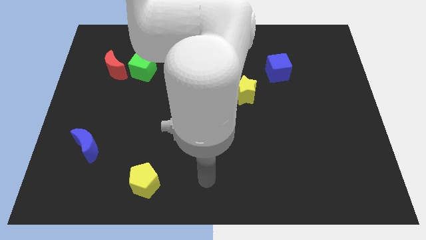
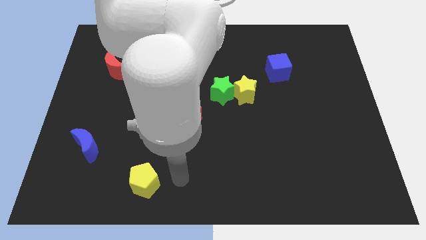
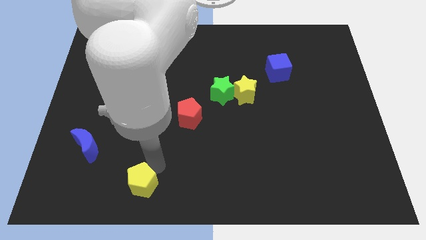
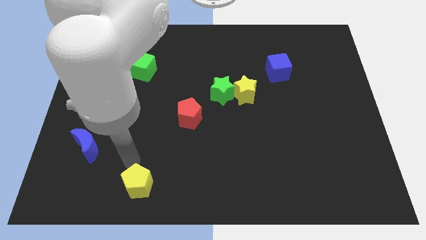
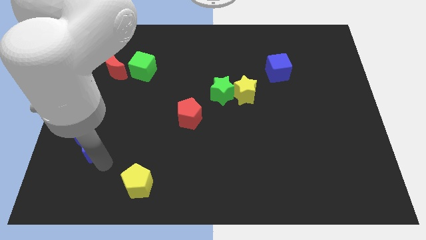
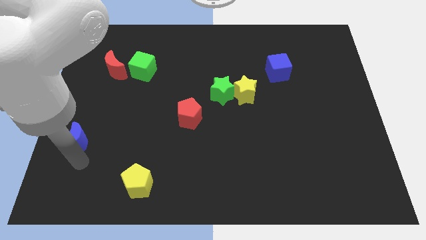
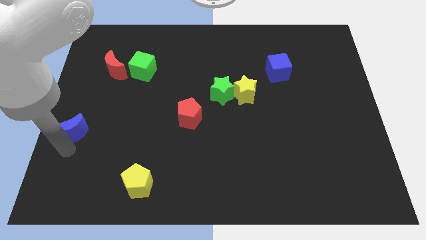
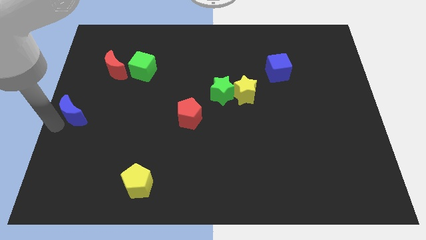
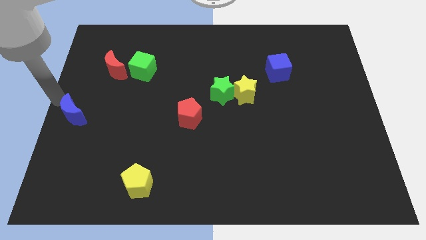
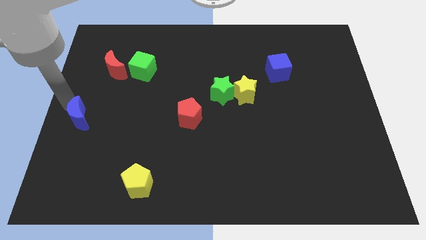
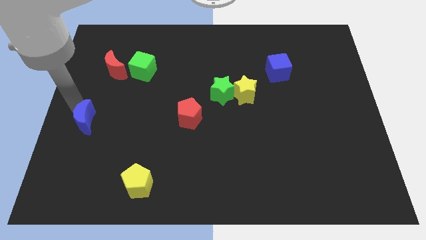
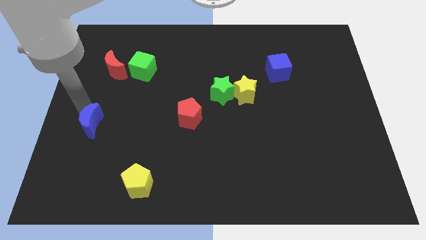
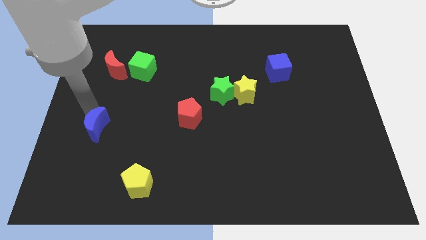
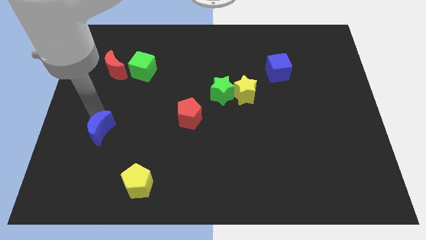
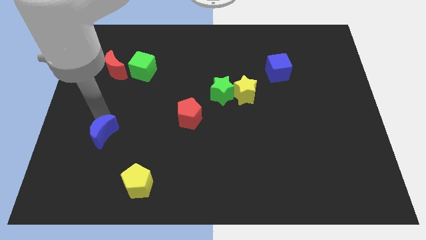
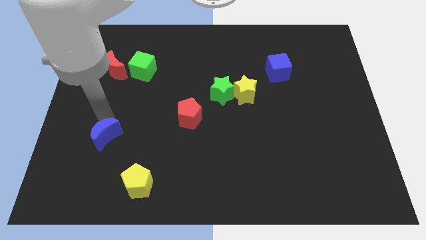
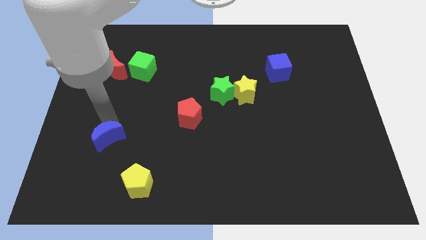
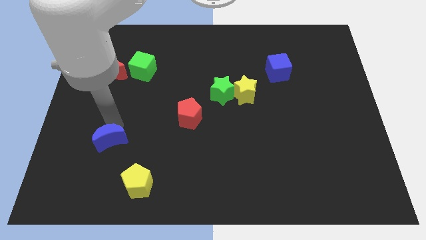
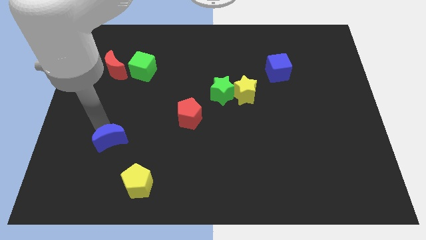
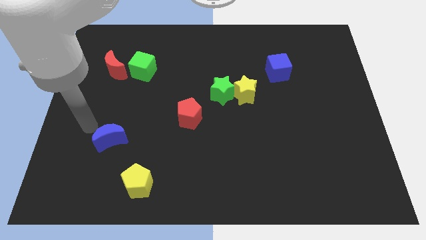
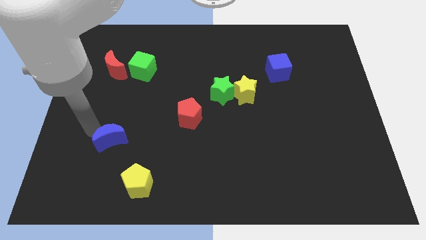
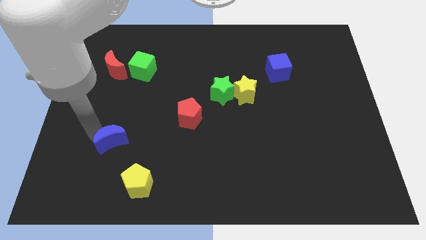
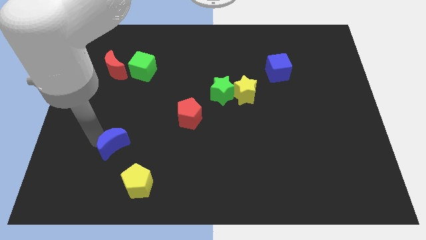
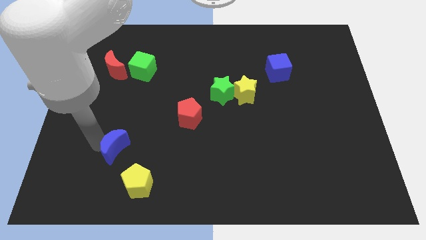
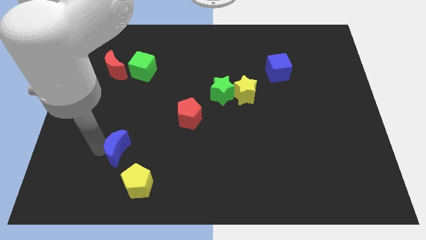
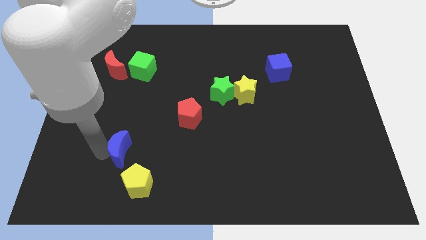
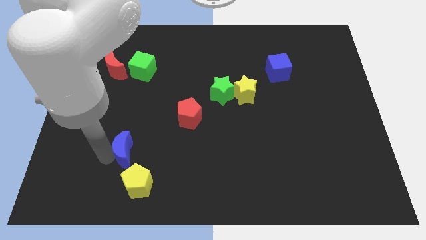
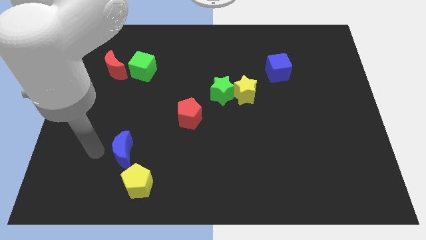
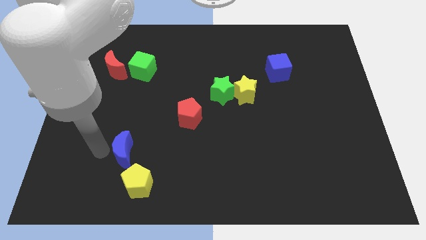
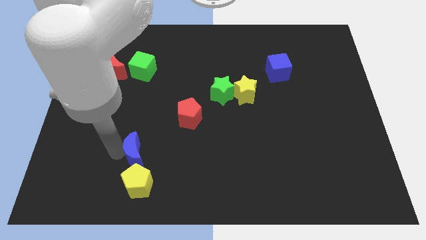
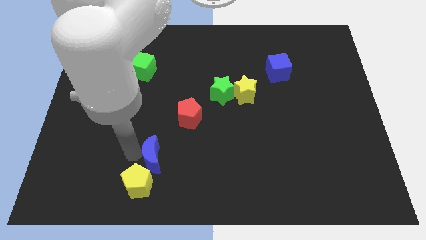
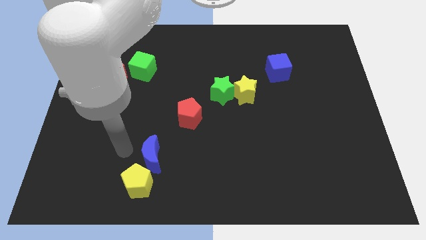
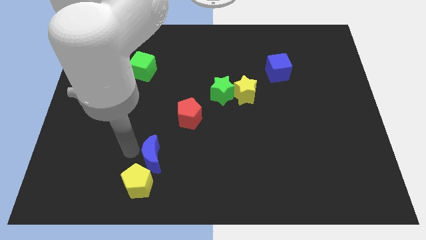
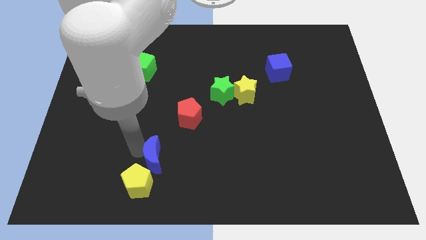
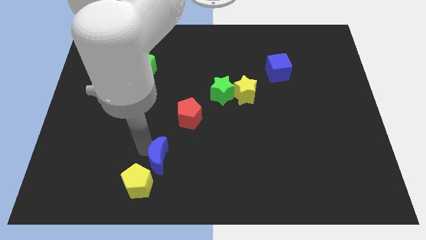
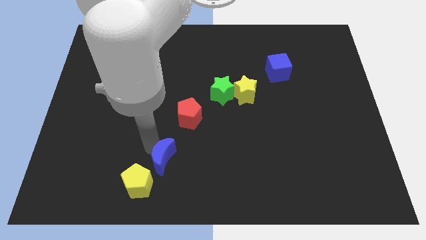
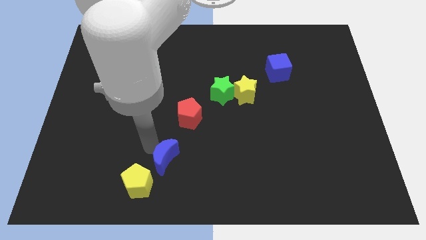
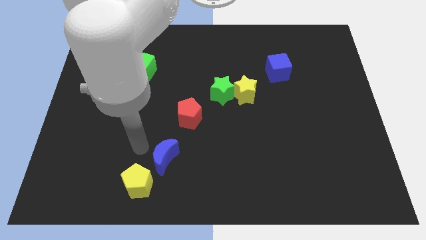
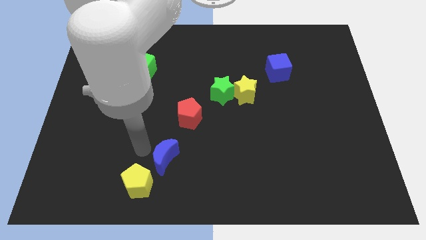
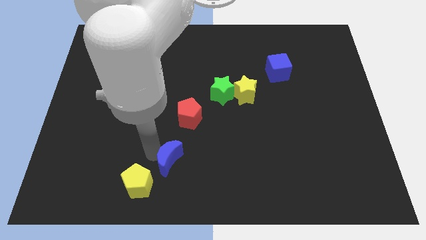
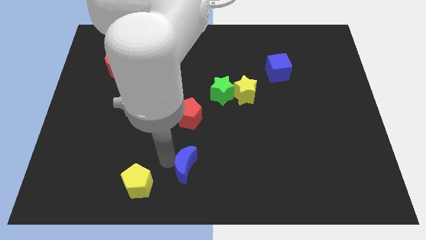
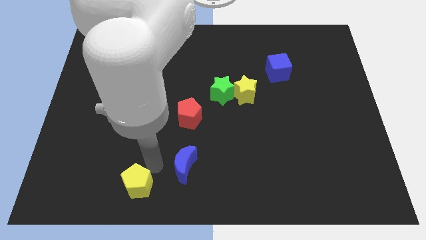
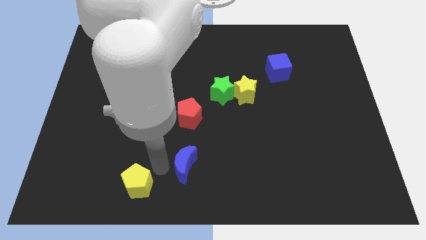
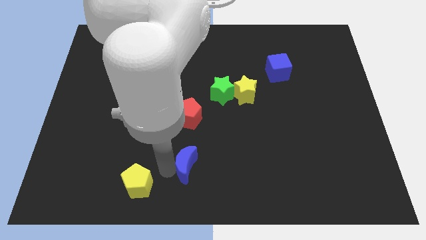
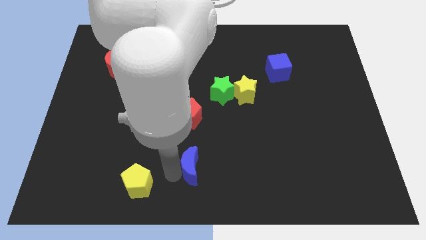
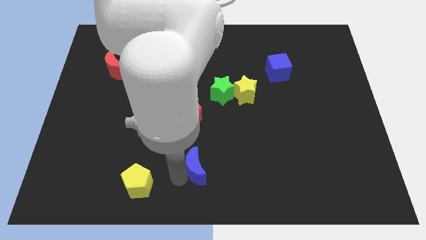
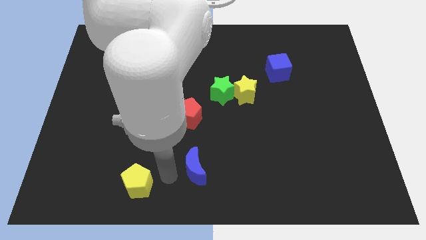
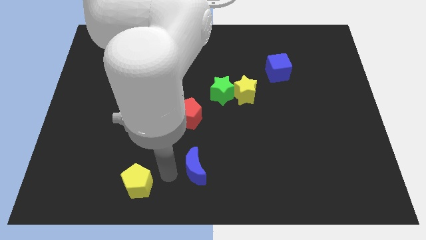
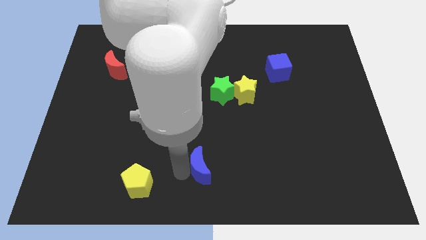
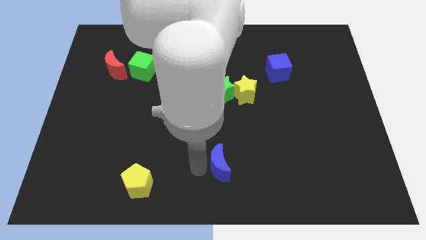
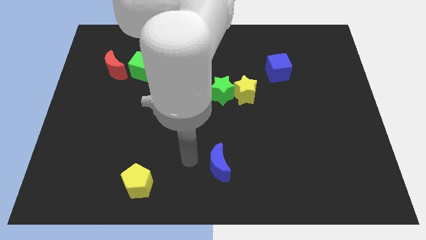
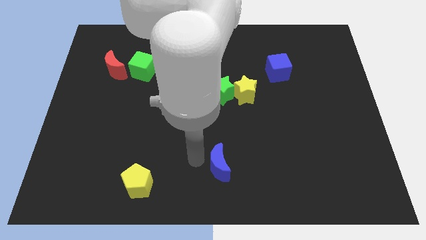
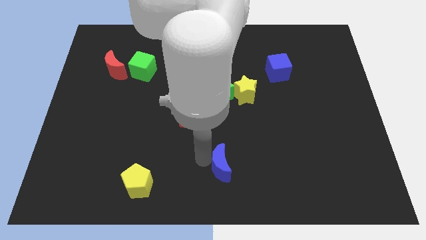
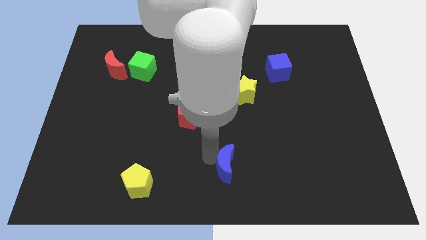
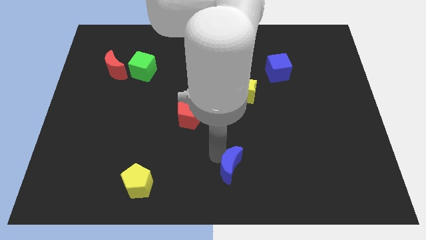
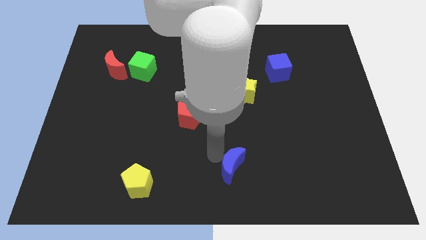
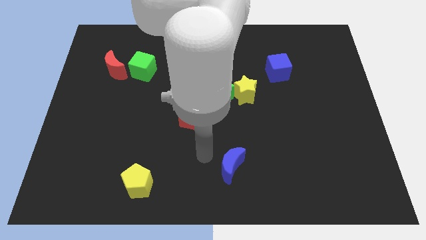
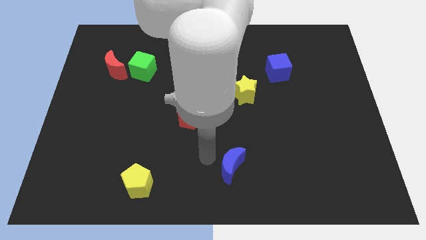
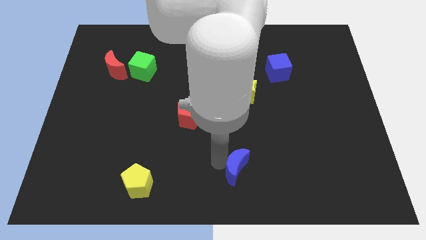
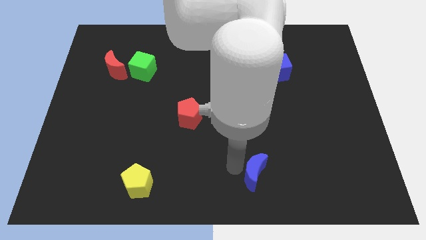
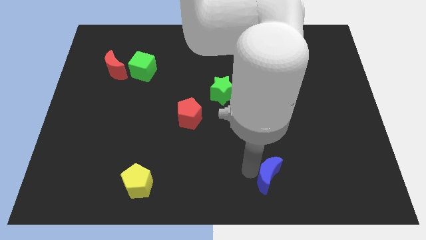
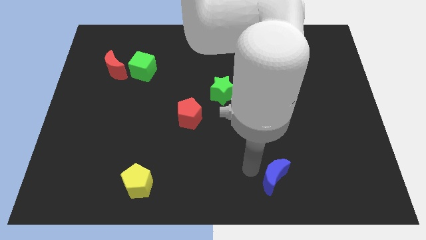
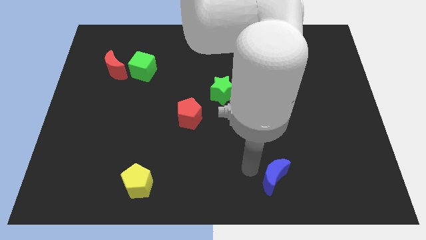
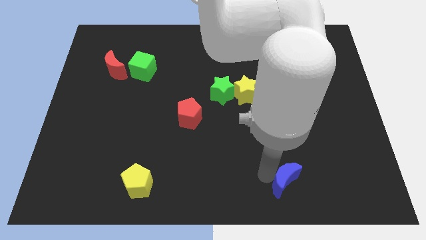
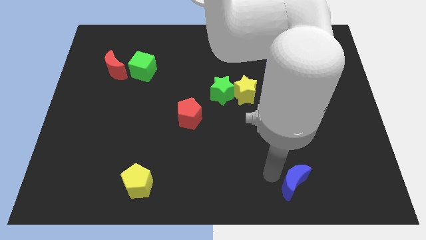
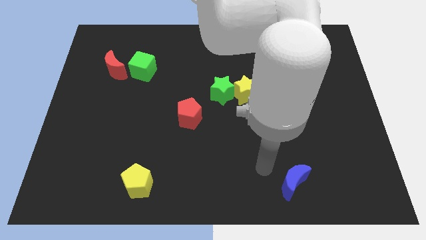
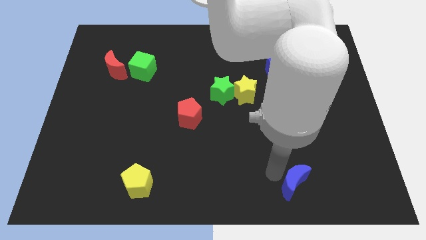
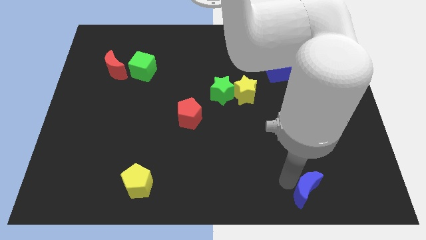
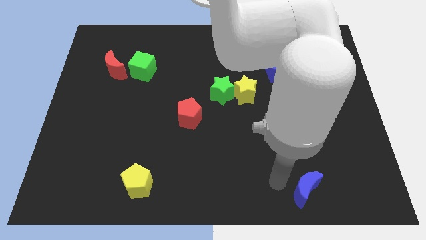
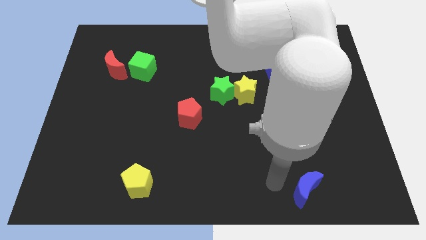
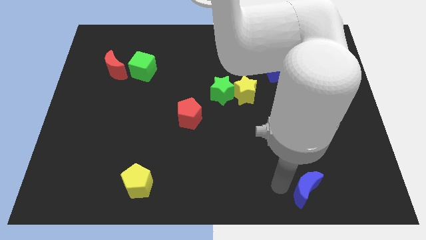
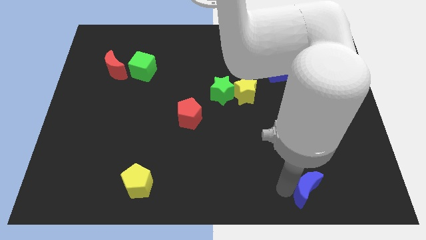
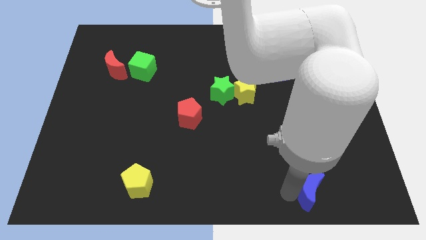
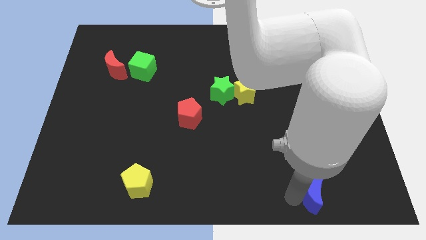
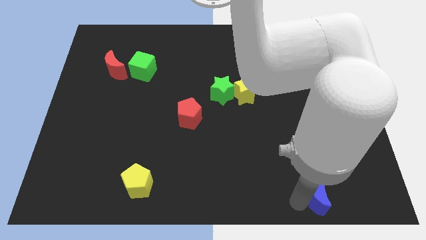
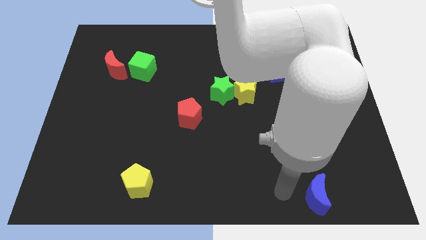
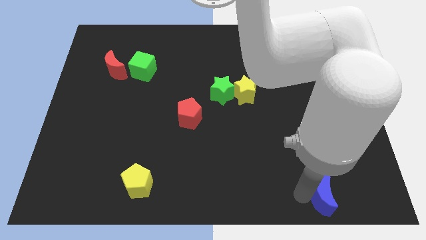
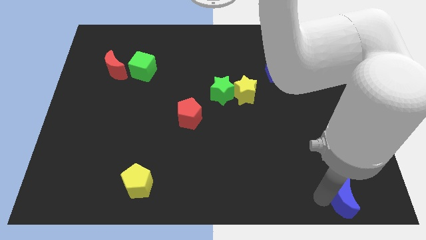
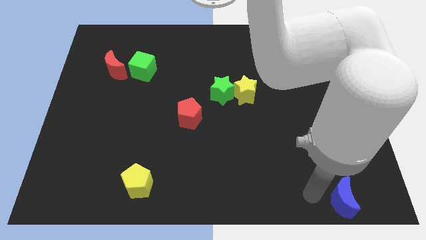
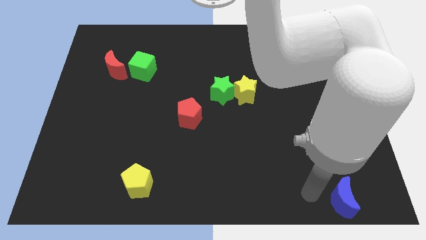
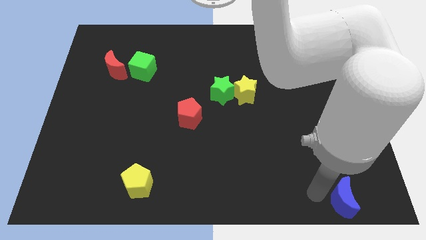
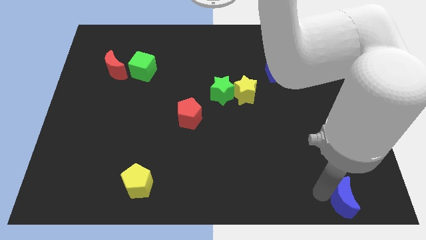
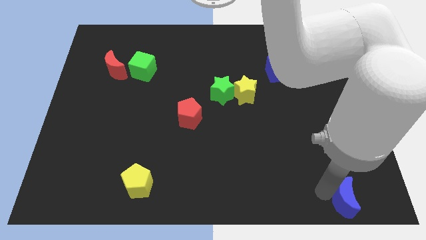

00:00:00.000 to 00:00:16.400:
put the blue moon to the bottom right corner
